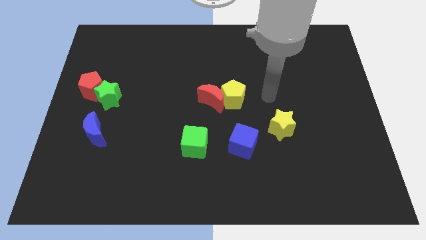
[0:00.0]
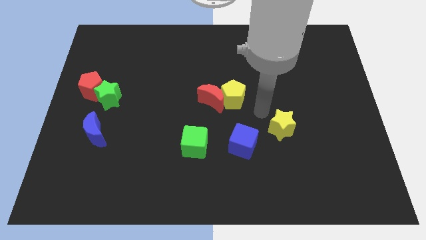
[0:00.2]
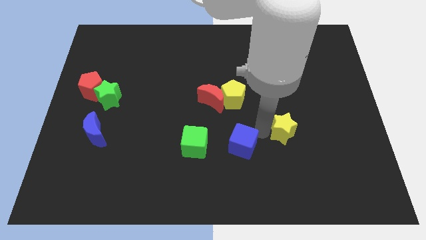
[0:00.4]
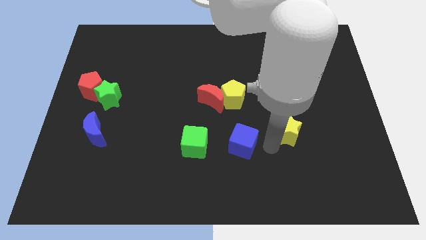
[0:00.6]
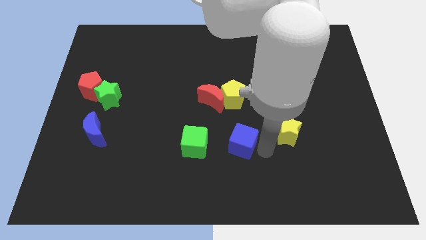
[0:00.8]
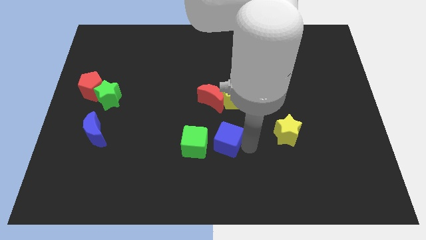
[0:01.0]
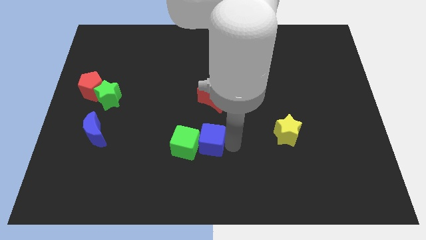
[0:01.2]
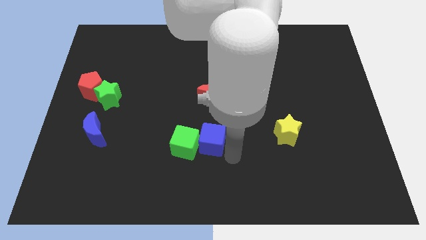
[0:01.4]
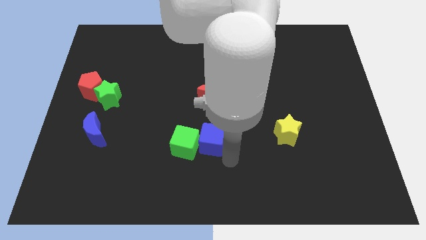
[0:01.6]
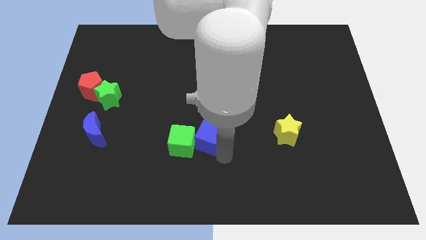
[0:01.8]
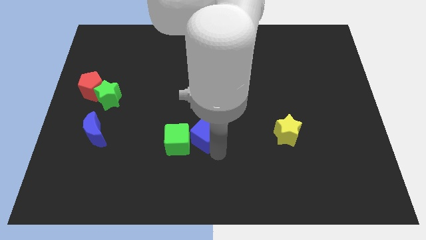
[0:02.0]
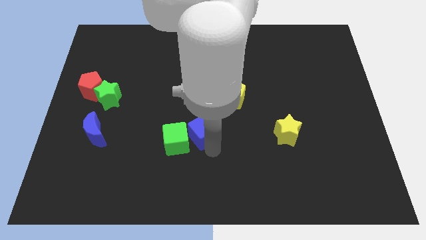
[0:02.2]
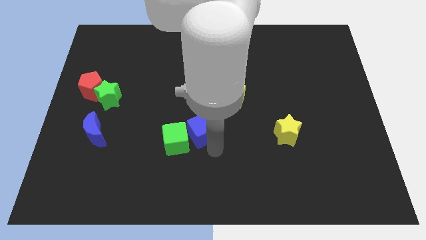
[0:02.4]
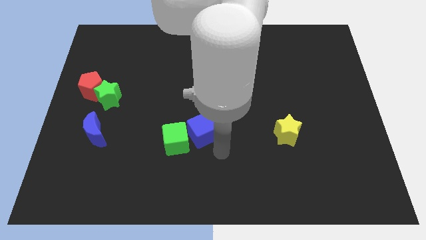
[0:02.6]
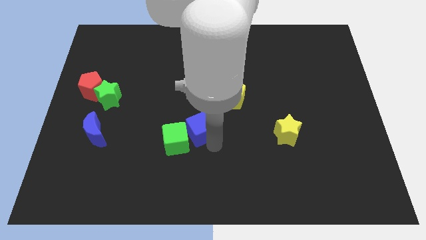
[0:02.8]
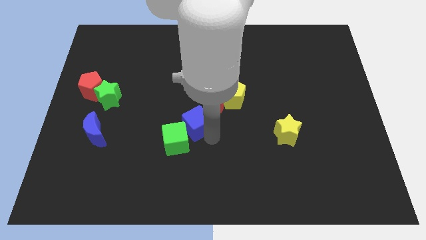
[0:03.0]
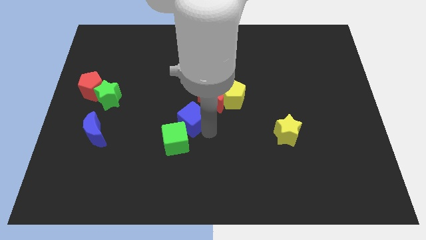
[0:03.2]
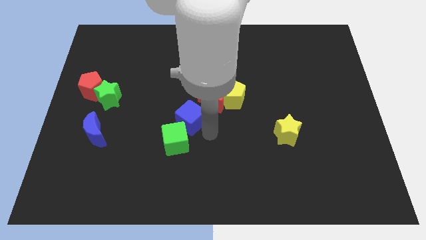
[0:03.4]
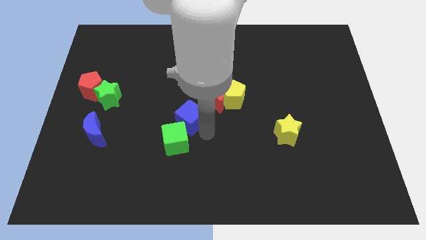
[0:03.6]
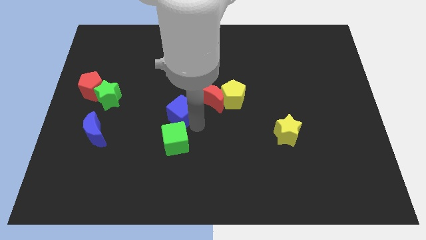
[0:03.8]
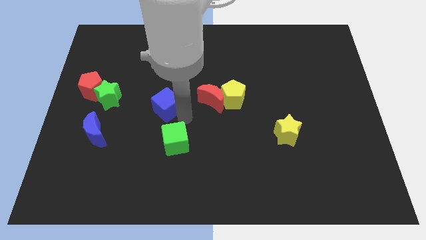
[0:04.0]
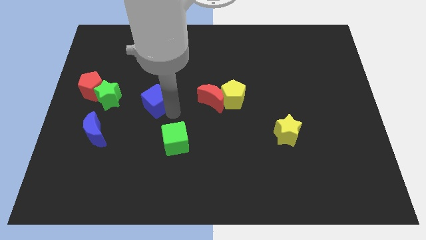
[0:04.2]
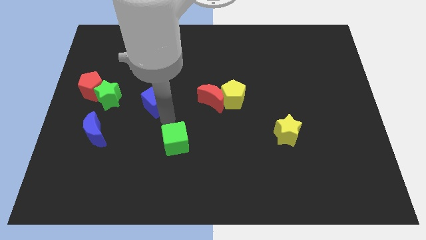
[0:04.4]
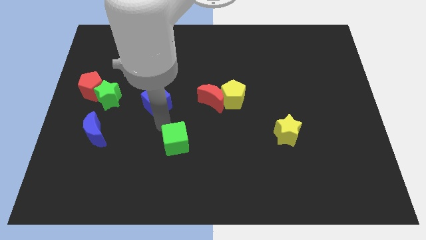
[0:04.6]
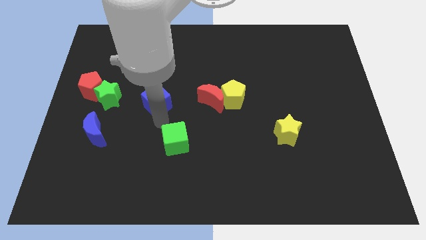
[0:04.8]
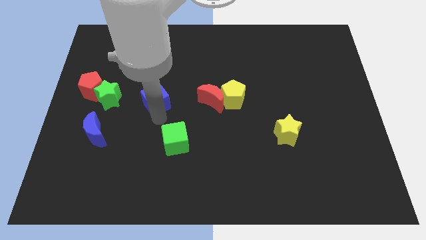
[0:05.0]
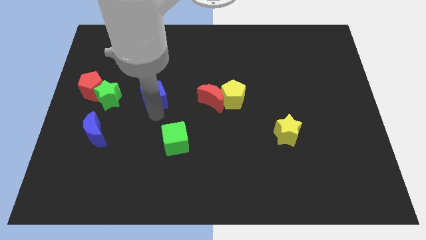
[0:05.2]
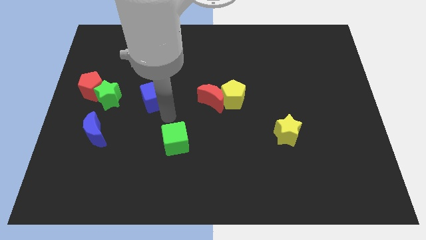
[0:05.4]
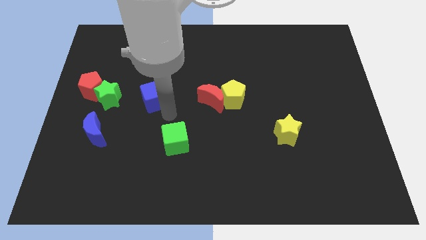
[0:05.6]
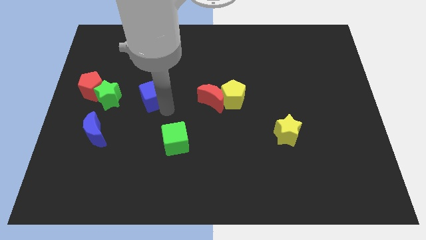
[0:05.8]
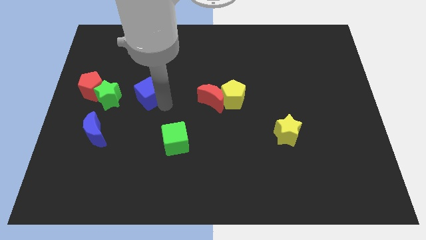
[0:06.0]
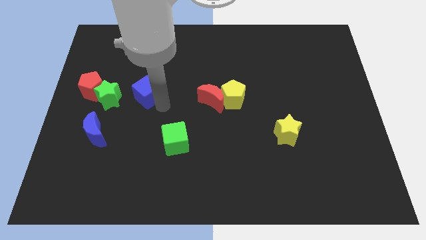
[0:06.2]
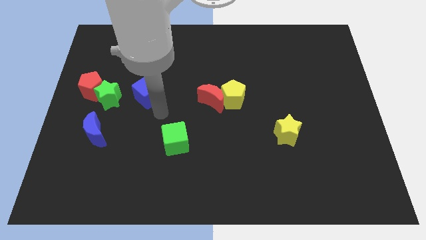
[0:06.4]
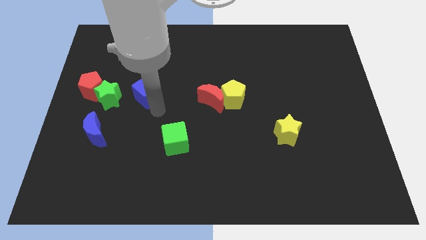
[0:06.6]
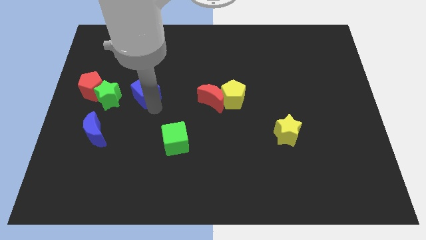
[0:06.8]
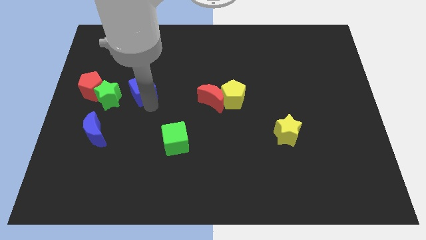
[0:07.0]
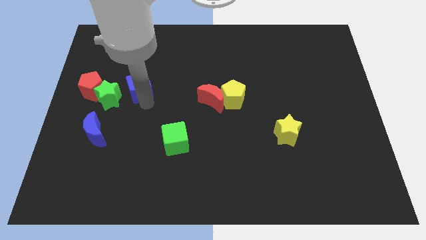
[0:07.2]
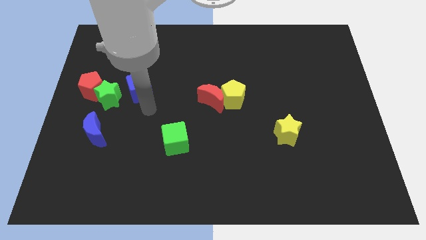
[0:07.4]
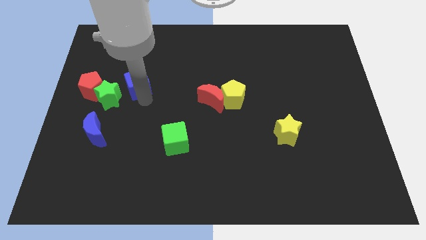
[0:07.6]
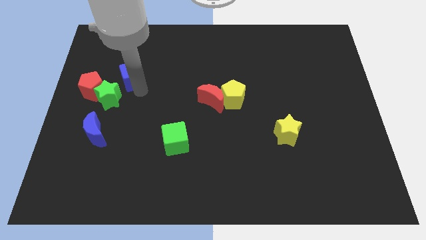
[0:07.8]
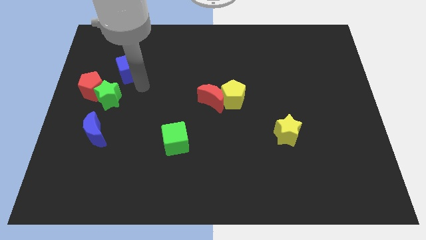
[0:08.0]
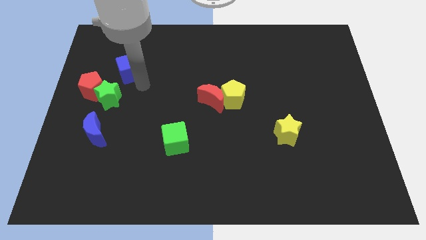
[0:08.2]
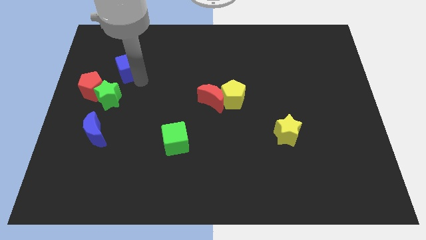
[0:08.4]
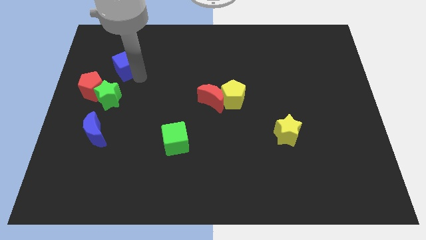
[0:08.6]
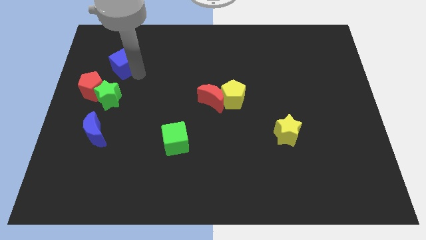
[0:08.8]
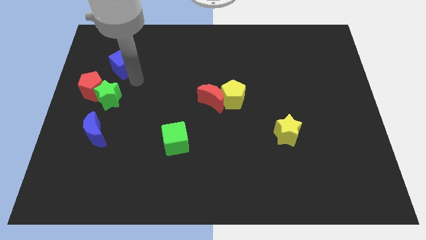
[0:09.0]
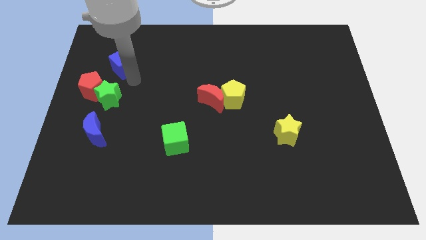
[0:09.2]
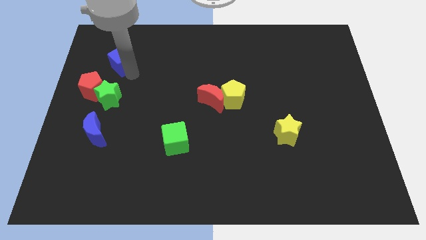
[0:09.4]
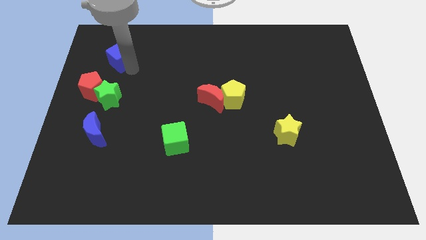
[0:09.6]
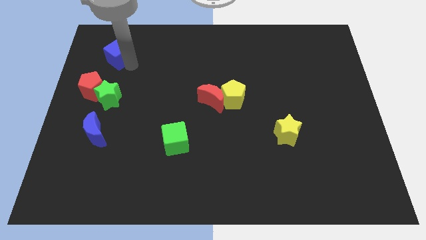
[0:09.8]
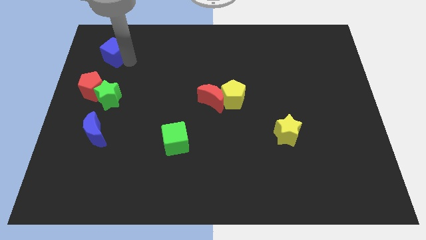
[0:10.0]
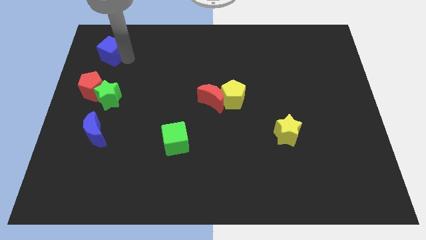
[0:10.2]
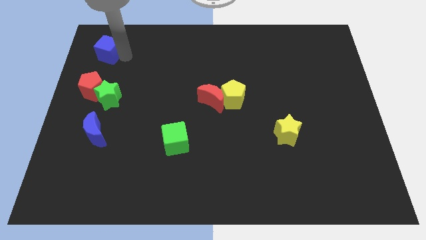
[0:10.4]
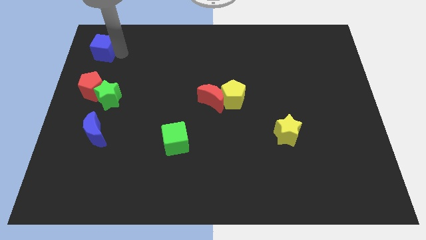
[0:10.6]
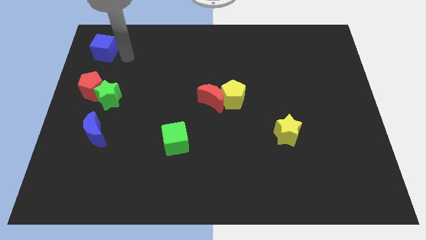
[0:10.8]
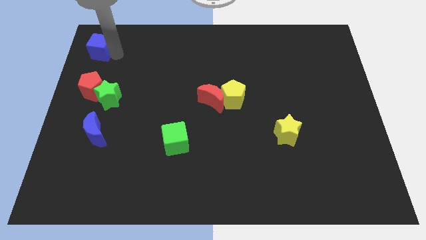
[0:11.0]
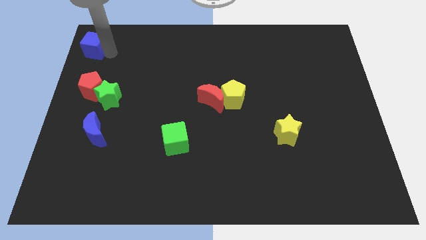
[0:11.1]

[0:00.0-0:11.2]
slide the blue cube to the top left corner

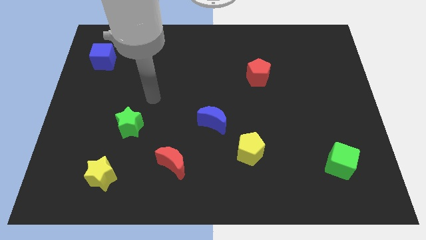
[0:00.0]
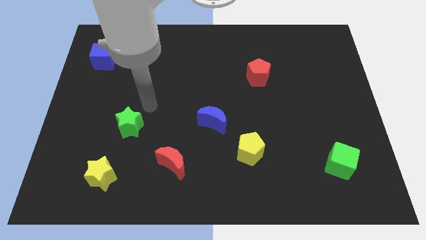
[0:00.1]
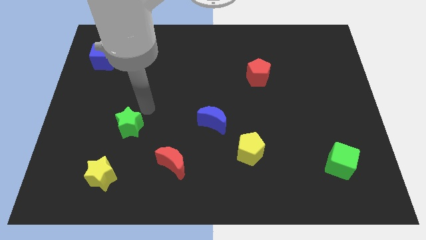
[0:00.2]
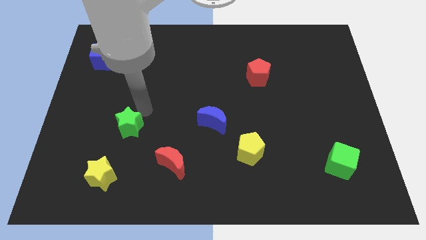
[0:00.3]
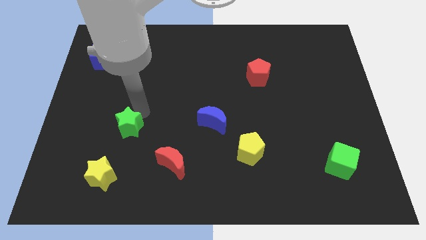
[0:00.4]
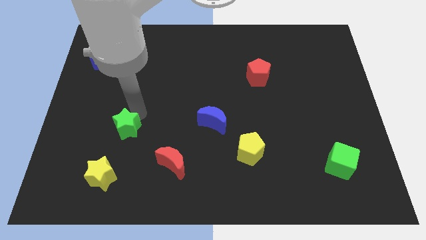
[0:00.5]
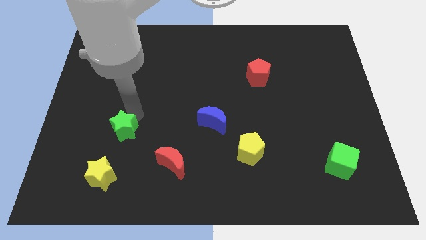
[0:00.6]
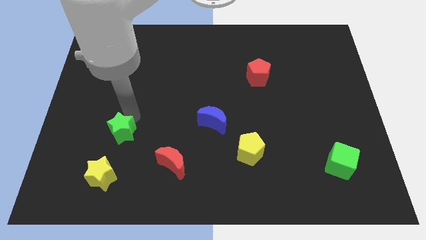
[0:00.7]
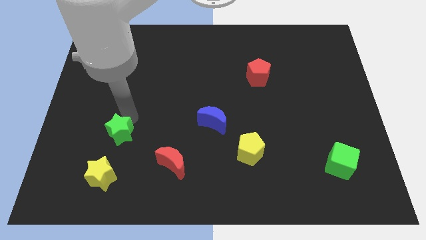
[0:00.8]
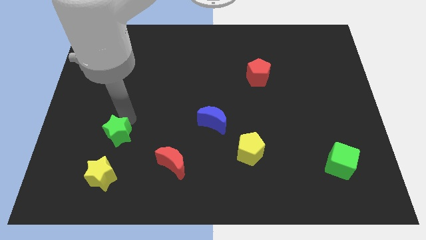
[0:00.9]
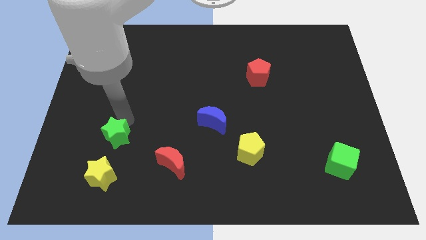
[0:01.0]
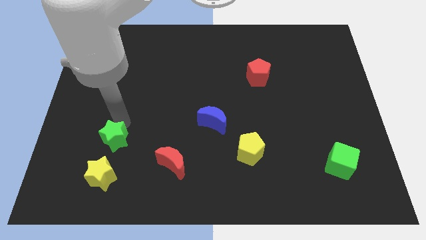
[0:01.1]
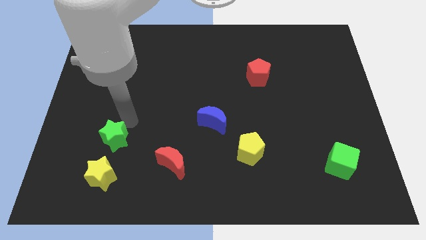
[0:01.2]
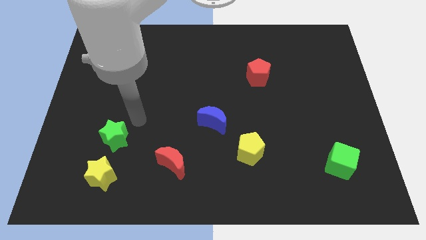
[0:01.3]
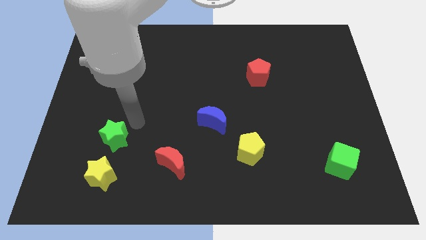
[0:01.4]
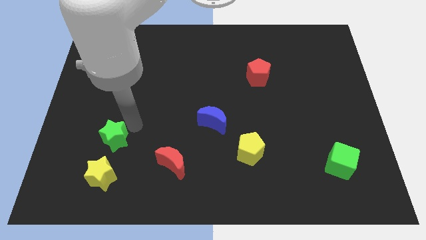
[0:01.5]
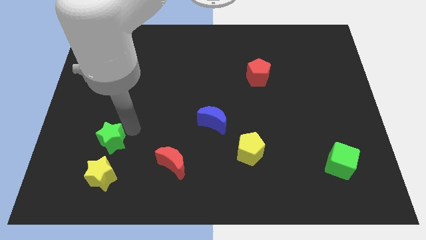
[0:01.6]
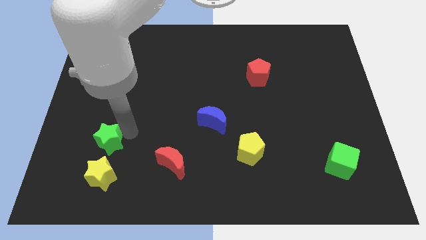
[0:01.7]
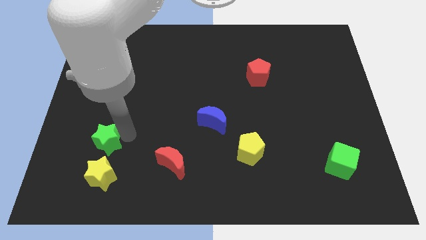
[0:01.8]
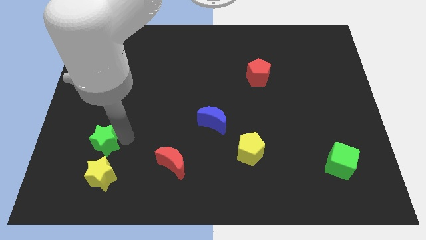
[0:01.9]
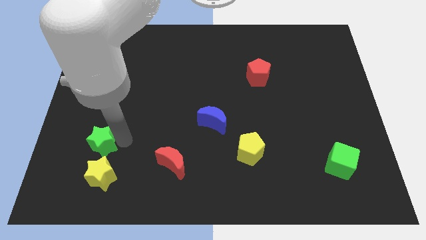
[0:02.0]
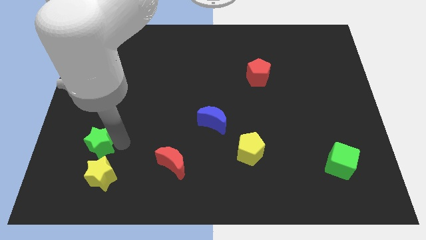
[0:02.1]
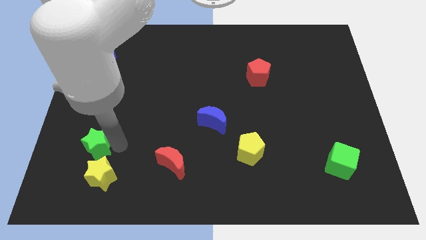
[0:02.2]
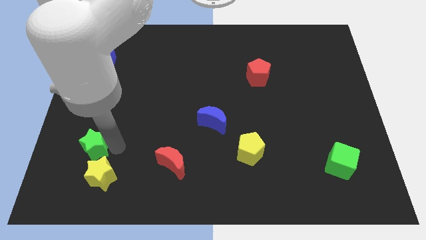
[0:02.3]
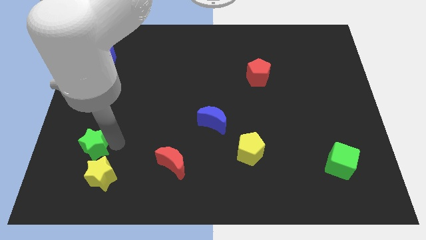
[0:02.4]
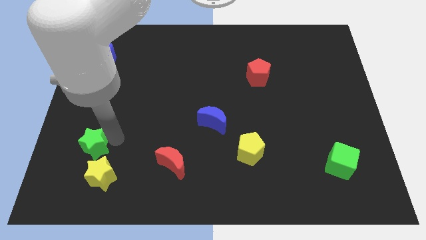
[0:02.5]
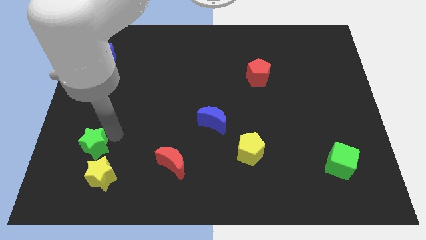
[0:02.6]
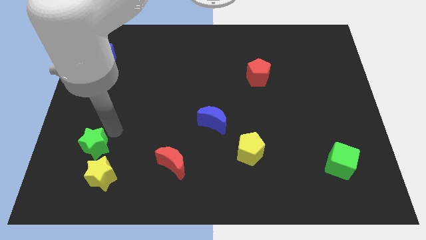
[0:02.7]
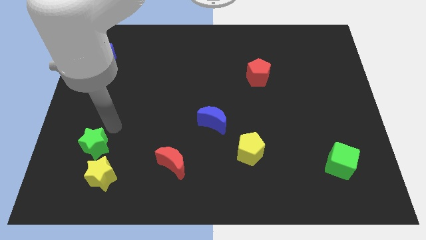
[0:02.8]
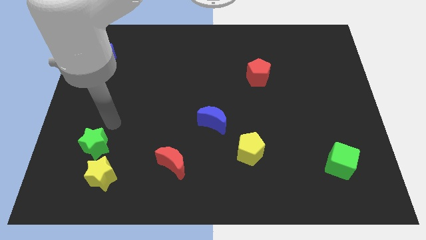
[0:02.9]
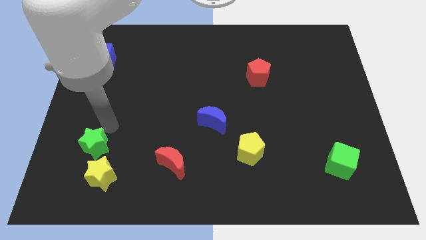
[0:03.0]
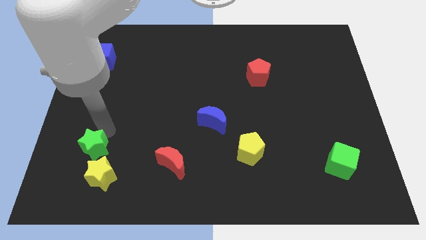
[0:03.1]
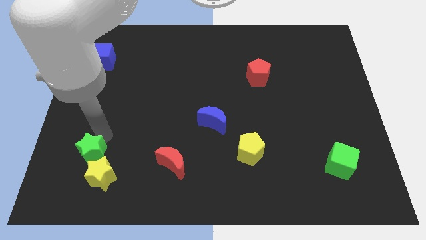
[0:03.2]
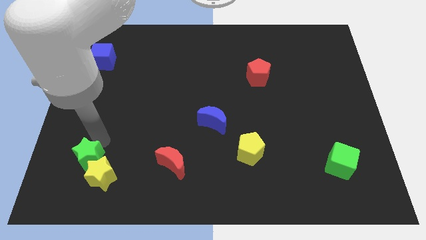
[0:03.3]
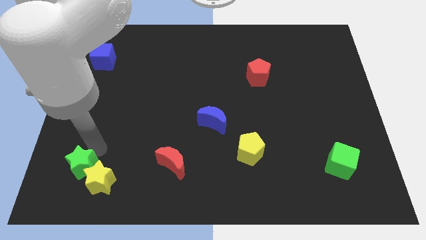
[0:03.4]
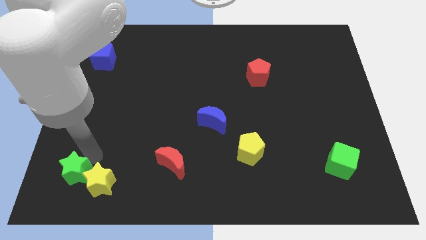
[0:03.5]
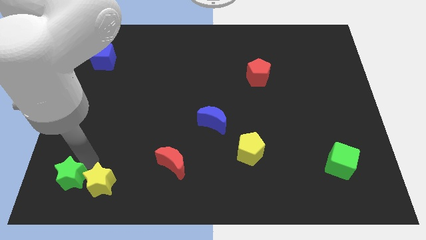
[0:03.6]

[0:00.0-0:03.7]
move the green star to the bottom left
